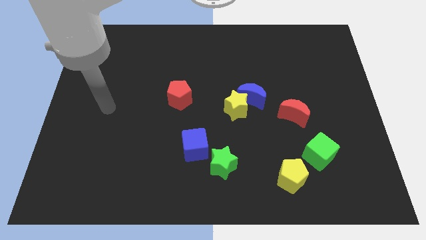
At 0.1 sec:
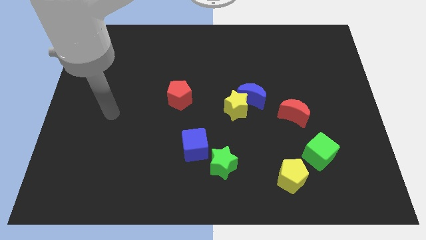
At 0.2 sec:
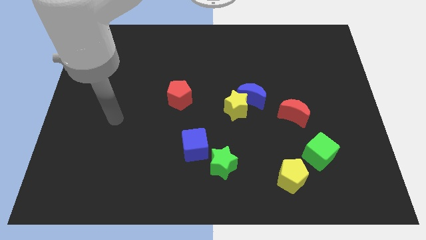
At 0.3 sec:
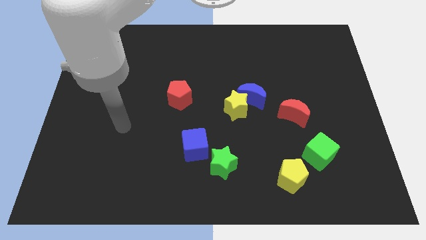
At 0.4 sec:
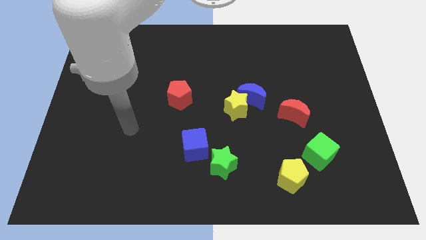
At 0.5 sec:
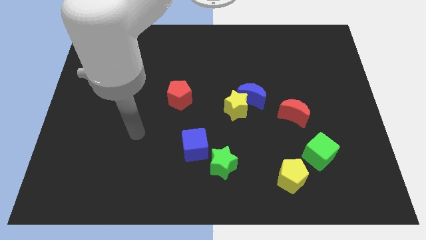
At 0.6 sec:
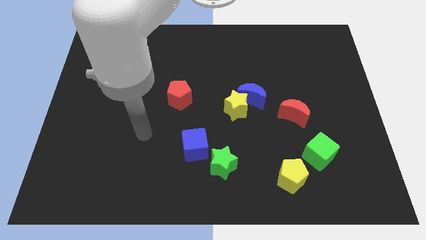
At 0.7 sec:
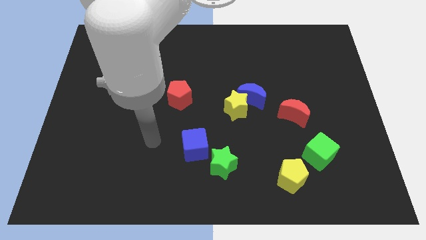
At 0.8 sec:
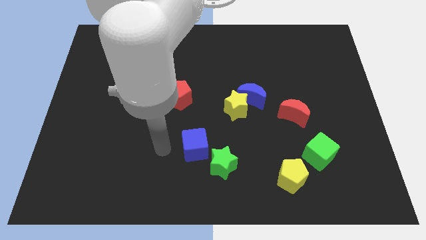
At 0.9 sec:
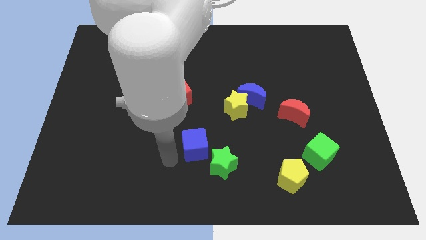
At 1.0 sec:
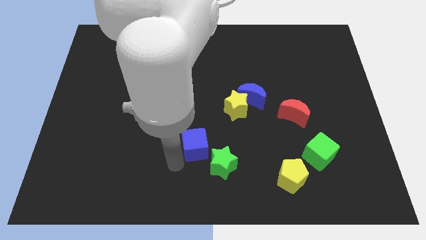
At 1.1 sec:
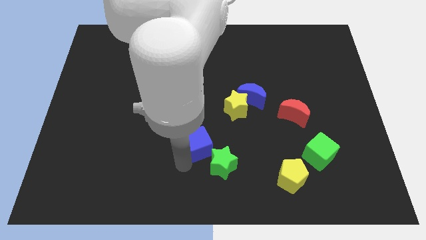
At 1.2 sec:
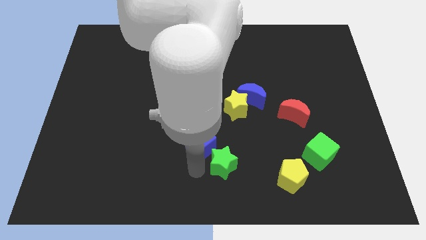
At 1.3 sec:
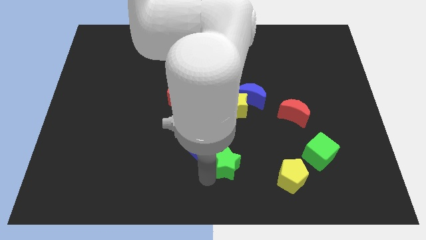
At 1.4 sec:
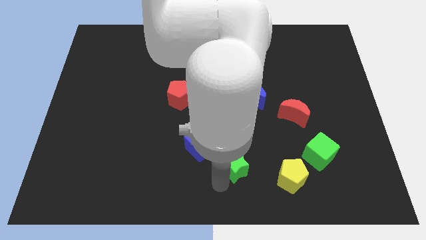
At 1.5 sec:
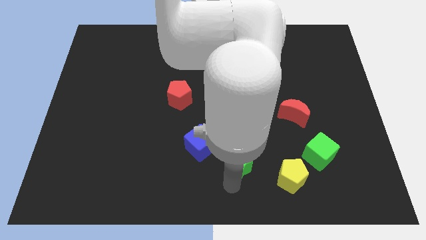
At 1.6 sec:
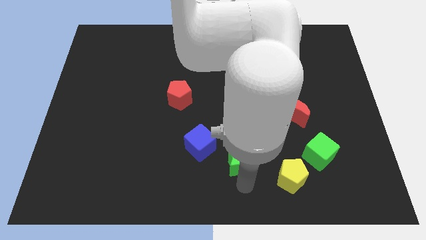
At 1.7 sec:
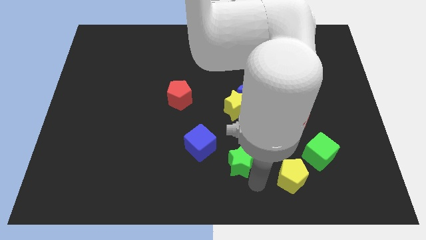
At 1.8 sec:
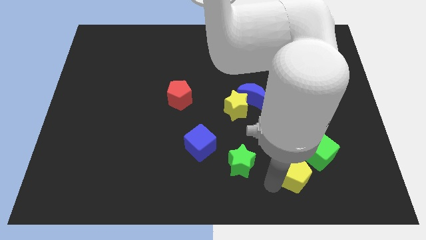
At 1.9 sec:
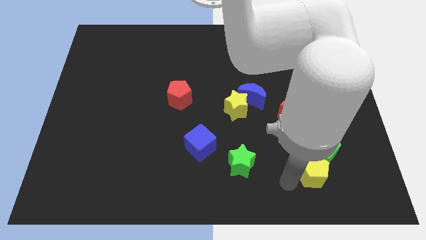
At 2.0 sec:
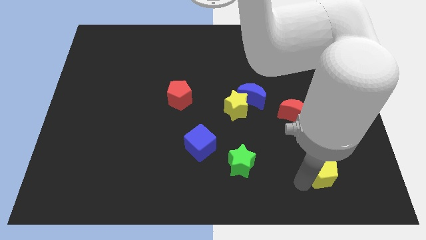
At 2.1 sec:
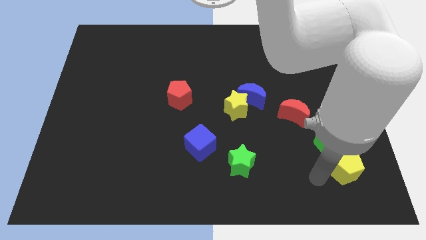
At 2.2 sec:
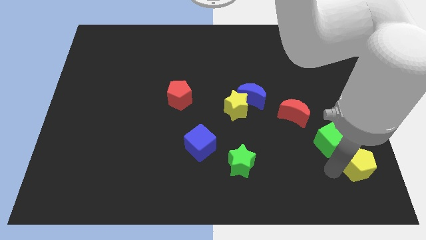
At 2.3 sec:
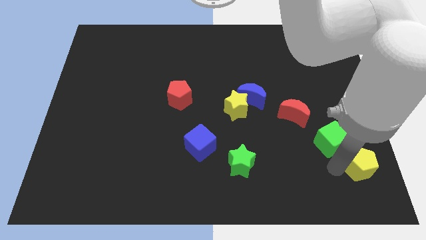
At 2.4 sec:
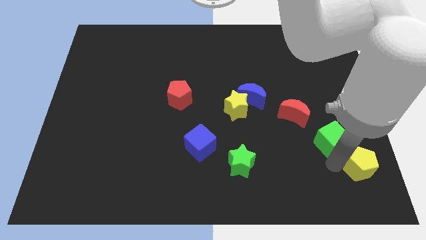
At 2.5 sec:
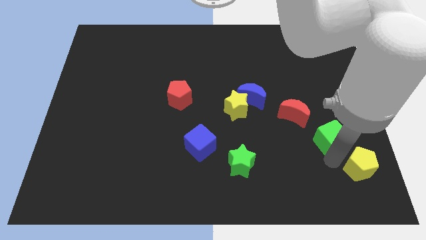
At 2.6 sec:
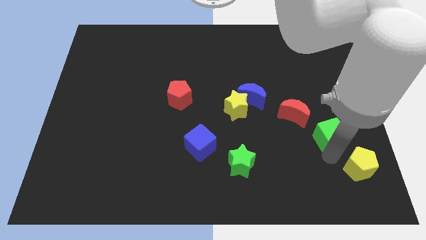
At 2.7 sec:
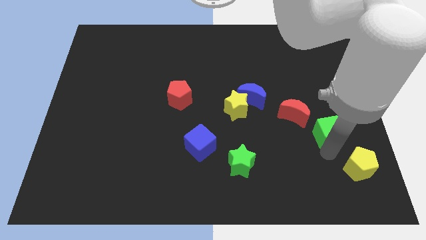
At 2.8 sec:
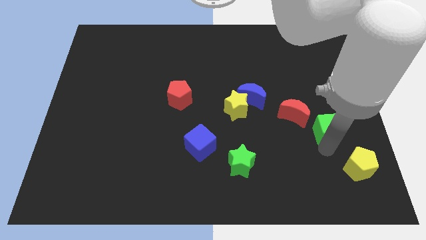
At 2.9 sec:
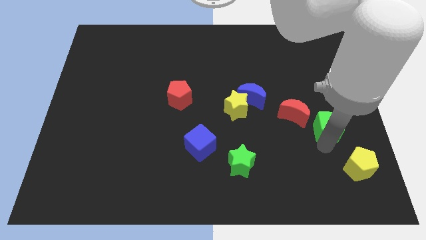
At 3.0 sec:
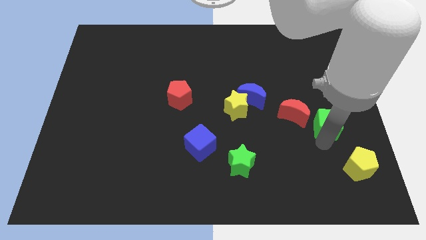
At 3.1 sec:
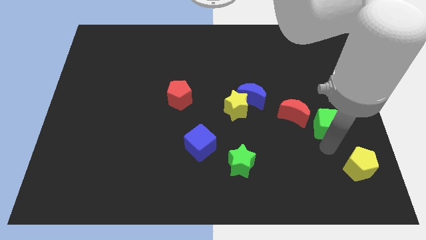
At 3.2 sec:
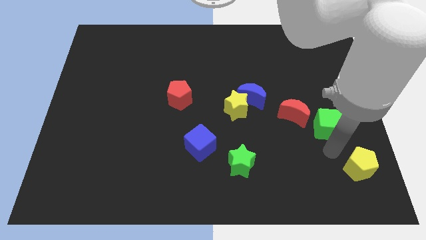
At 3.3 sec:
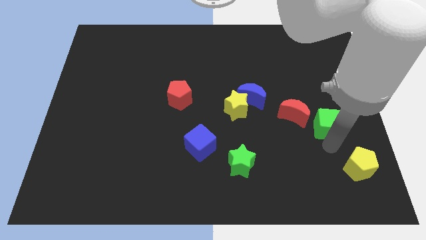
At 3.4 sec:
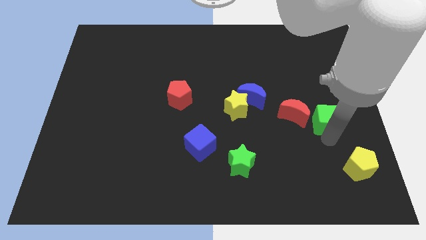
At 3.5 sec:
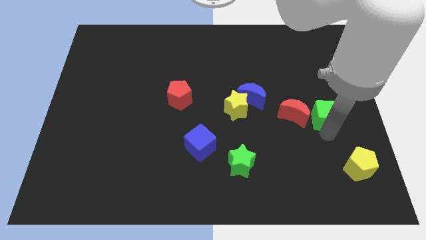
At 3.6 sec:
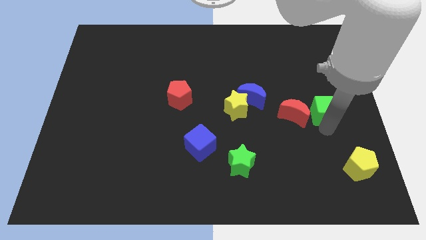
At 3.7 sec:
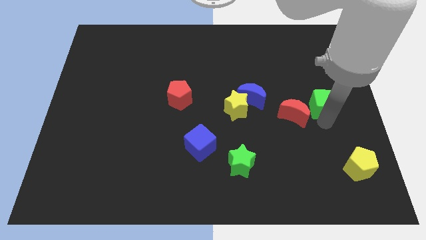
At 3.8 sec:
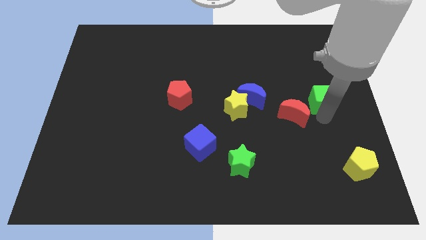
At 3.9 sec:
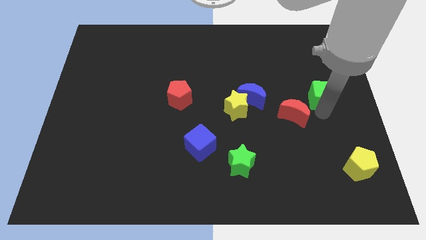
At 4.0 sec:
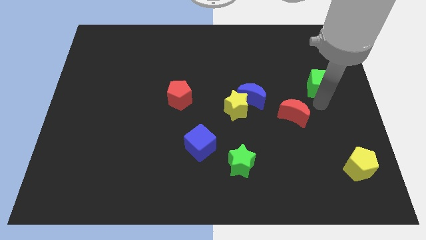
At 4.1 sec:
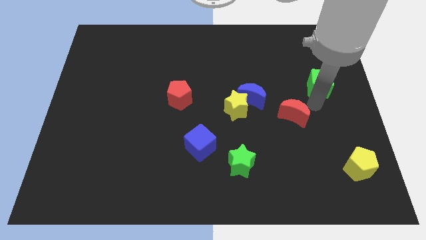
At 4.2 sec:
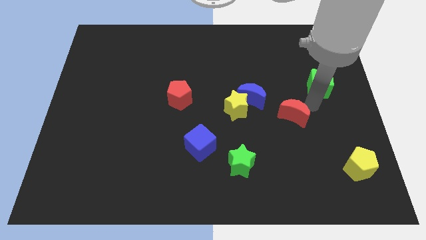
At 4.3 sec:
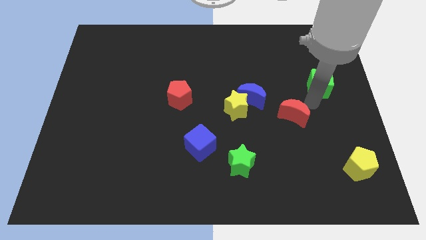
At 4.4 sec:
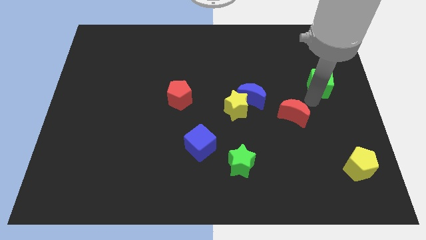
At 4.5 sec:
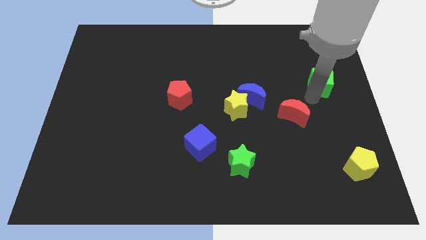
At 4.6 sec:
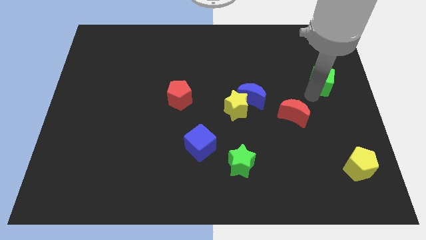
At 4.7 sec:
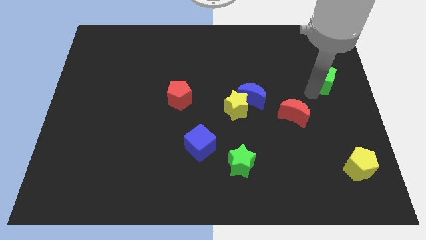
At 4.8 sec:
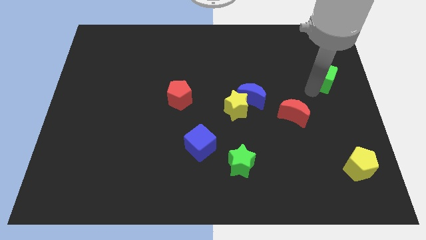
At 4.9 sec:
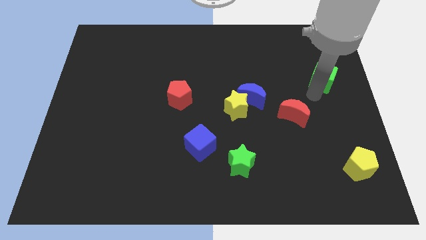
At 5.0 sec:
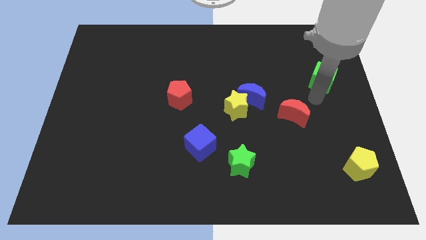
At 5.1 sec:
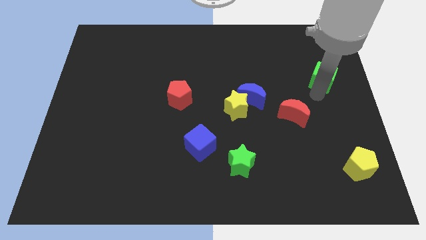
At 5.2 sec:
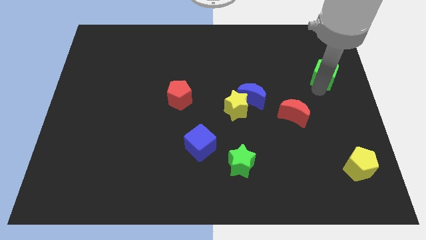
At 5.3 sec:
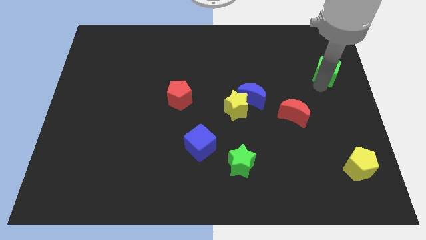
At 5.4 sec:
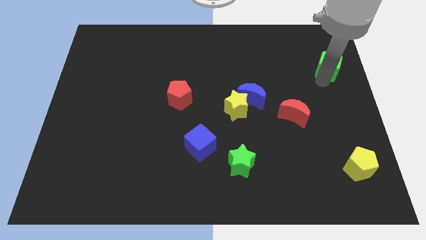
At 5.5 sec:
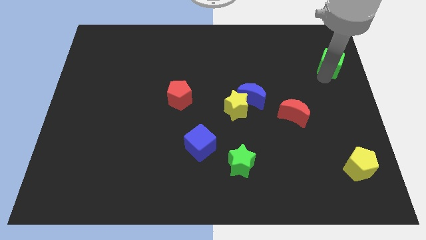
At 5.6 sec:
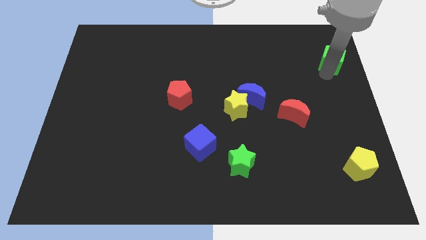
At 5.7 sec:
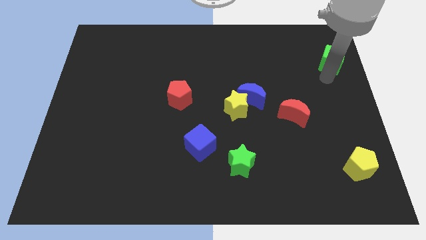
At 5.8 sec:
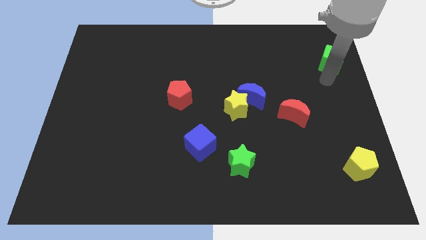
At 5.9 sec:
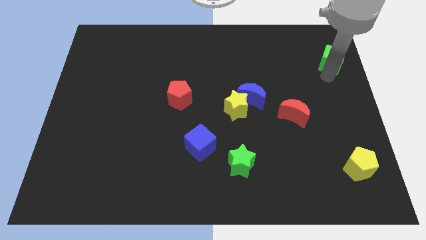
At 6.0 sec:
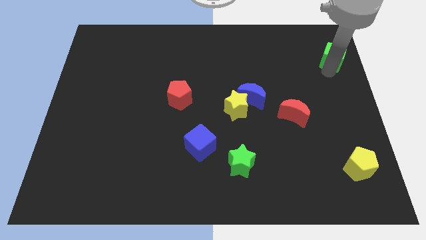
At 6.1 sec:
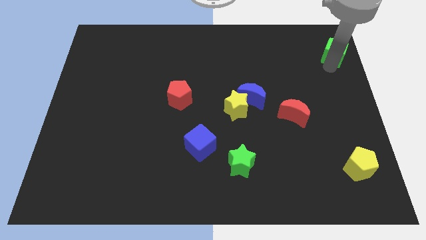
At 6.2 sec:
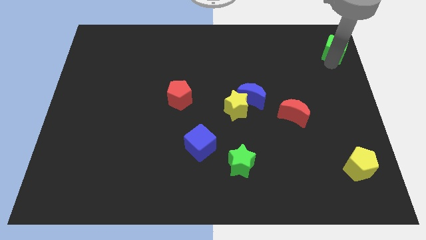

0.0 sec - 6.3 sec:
put the green cube to the upper right corner
